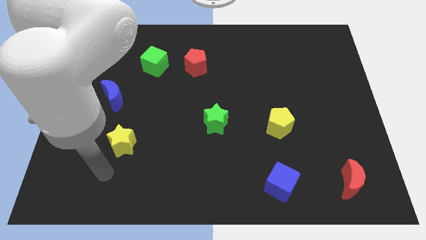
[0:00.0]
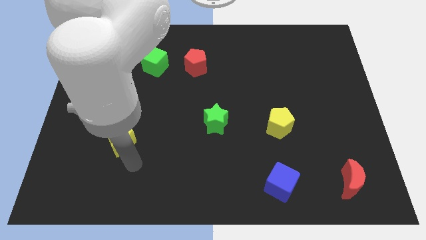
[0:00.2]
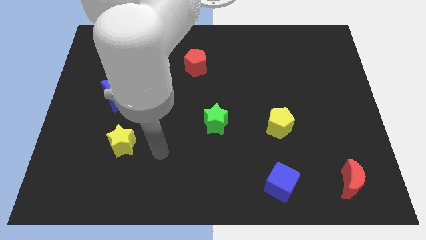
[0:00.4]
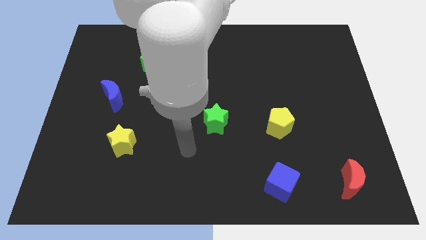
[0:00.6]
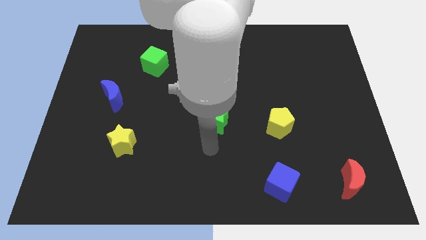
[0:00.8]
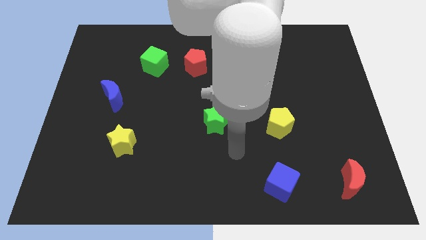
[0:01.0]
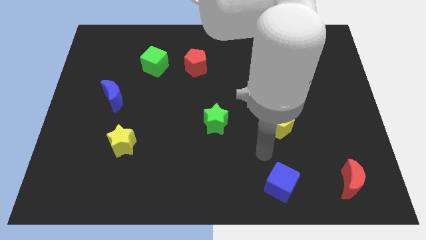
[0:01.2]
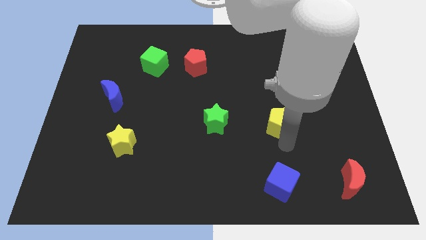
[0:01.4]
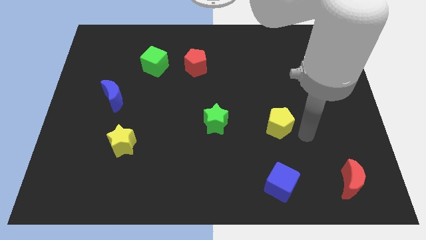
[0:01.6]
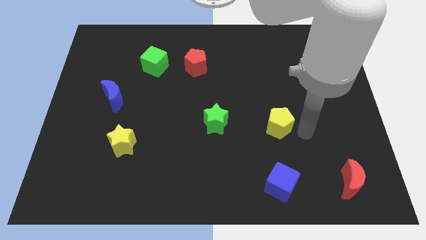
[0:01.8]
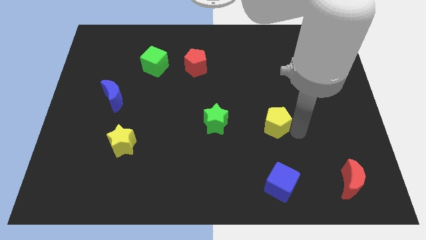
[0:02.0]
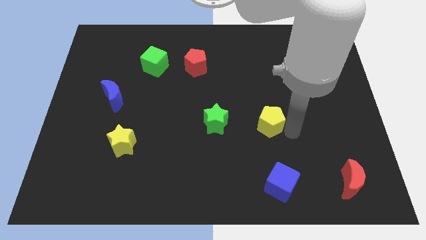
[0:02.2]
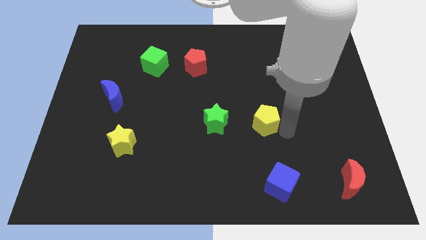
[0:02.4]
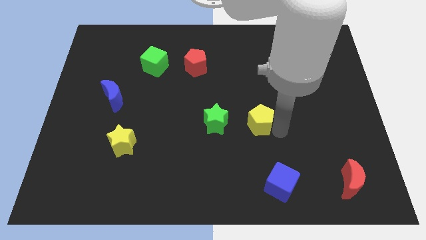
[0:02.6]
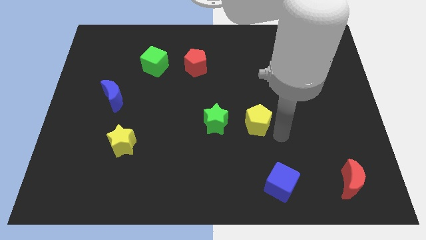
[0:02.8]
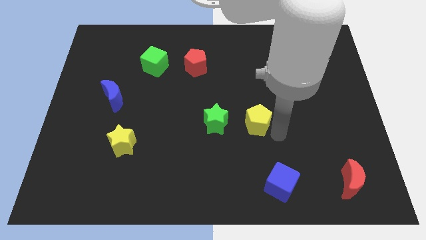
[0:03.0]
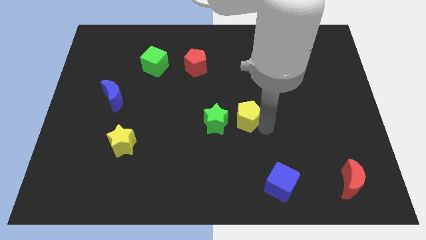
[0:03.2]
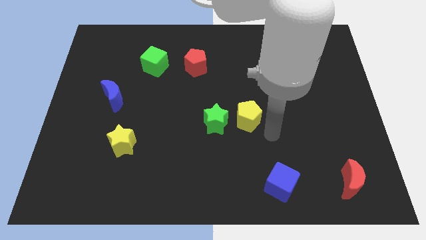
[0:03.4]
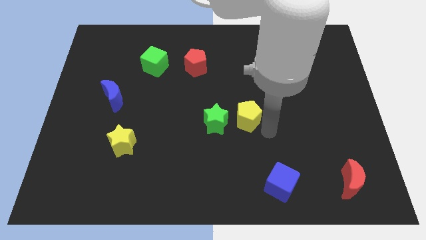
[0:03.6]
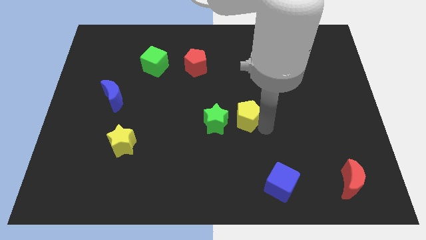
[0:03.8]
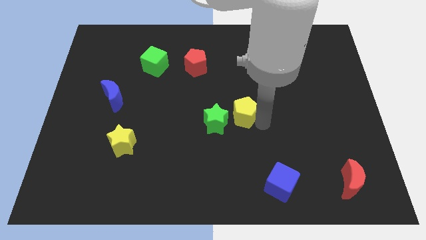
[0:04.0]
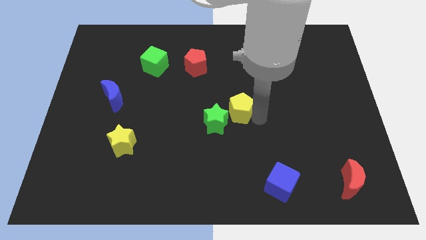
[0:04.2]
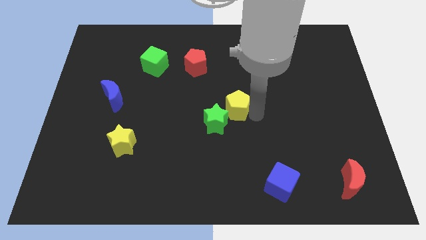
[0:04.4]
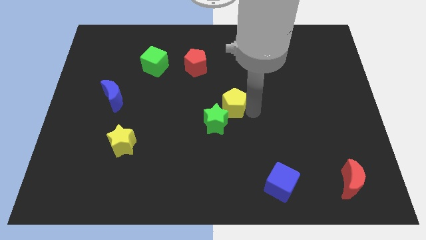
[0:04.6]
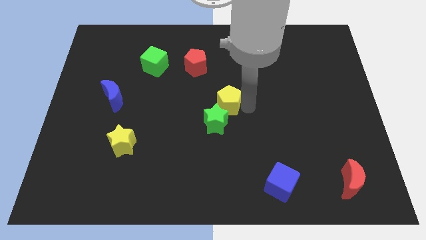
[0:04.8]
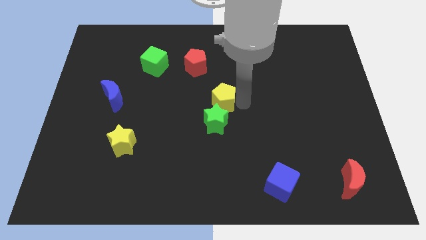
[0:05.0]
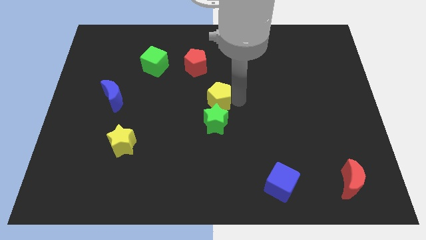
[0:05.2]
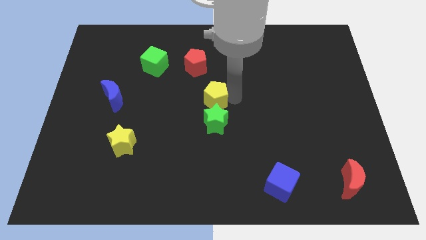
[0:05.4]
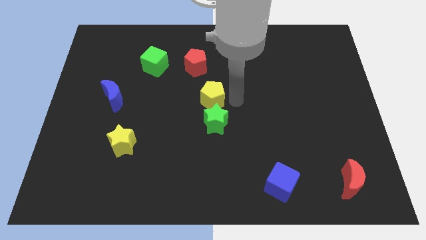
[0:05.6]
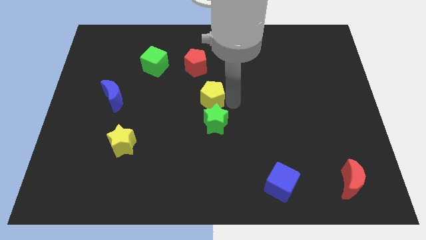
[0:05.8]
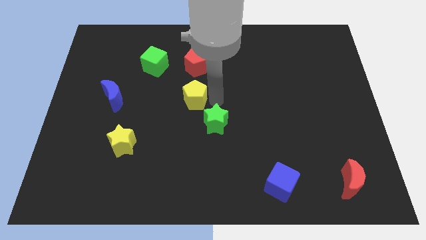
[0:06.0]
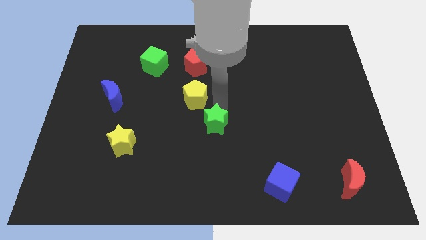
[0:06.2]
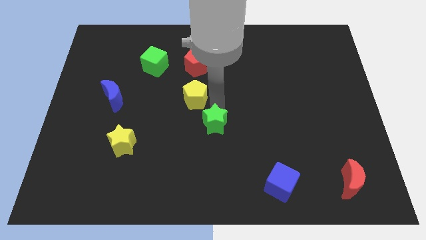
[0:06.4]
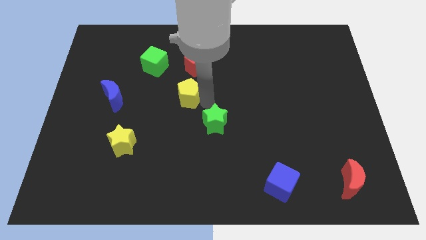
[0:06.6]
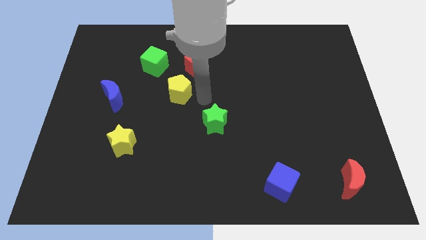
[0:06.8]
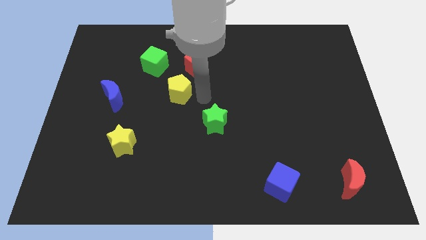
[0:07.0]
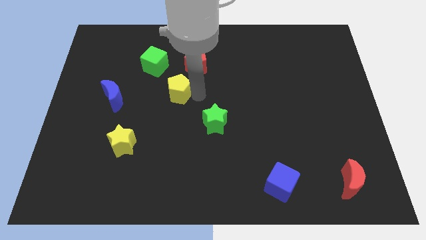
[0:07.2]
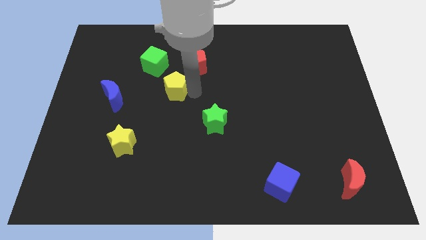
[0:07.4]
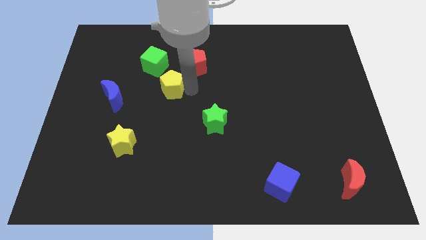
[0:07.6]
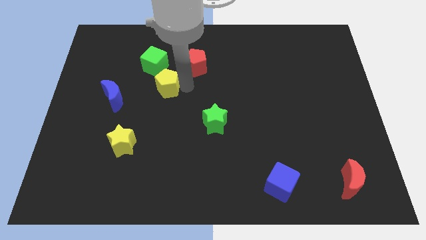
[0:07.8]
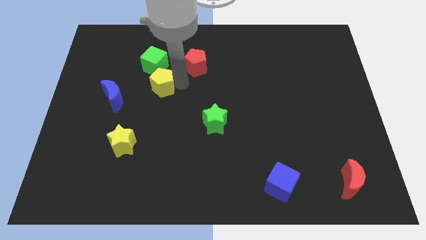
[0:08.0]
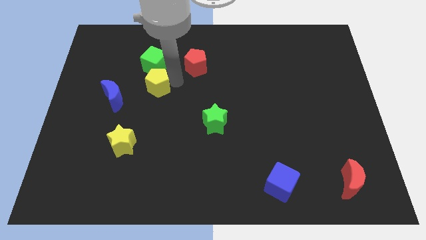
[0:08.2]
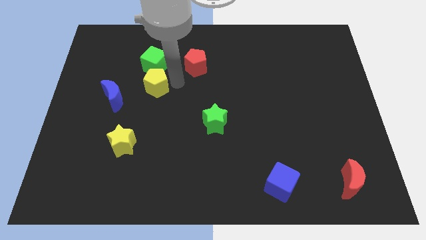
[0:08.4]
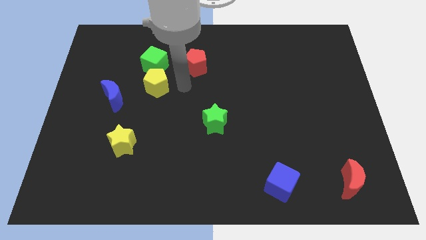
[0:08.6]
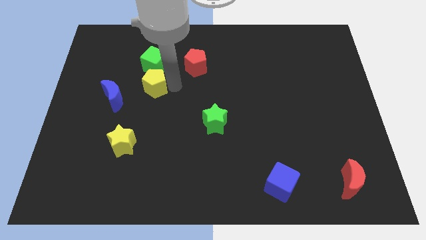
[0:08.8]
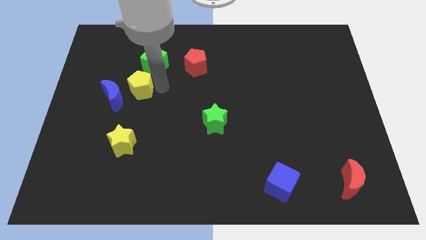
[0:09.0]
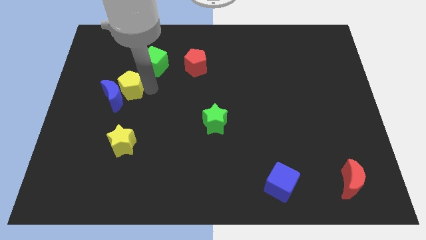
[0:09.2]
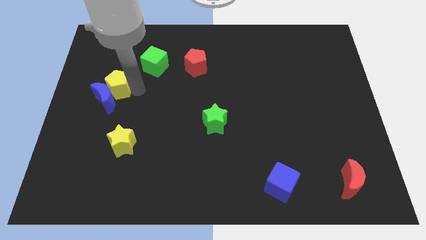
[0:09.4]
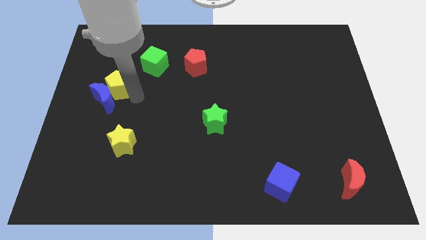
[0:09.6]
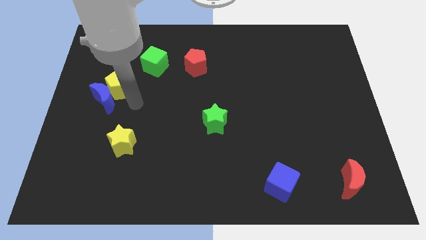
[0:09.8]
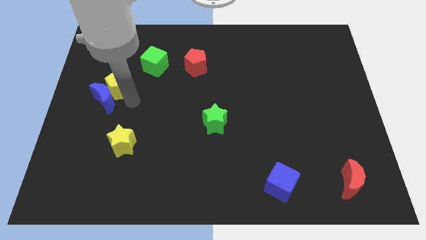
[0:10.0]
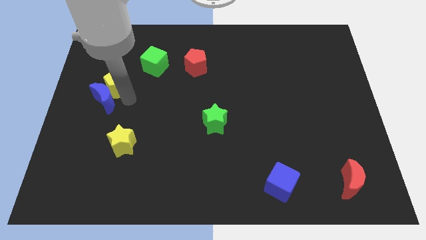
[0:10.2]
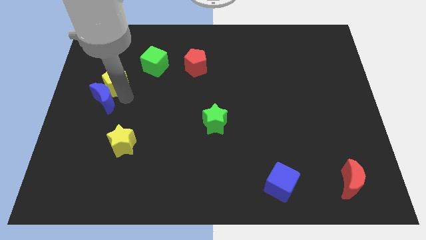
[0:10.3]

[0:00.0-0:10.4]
move the yellow pentagon diagonally up and to the left of the blue moon

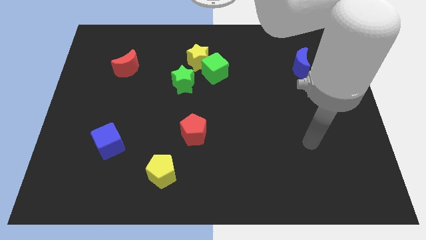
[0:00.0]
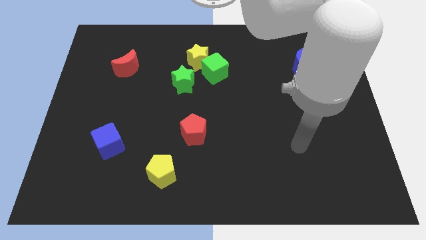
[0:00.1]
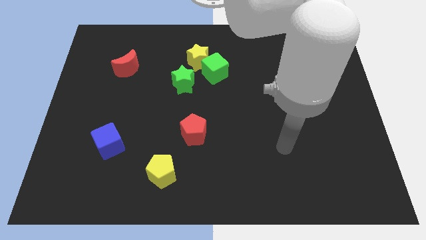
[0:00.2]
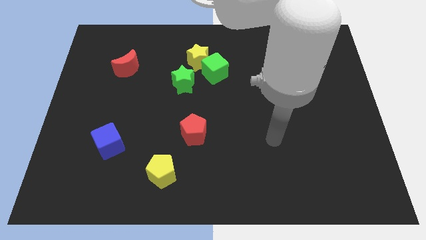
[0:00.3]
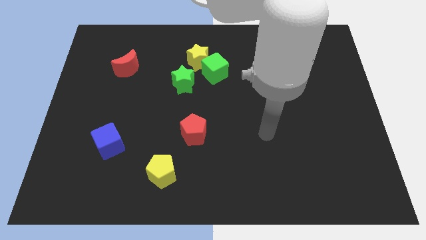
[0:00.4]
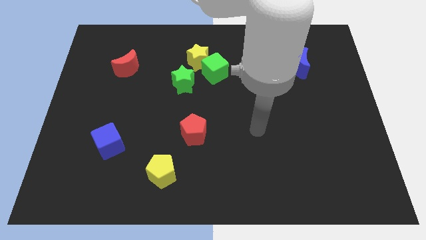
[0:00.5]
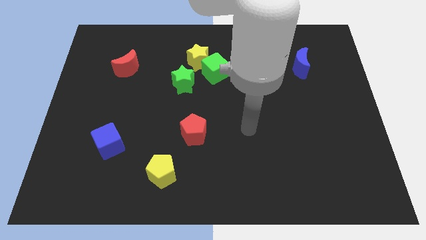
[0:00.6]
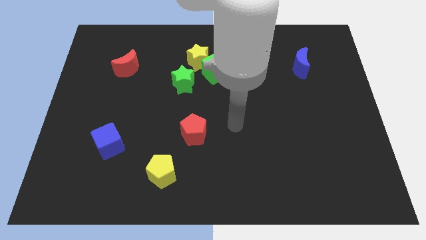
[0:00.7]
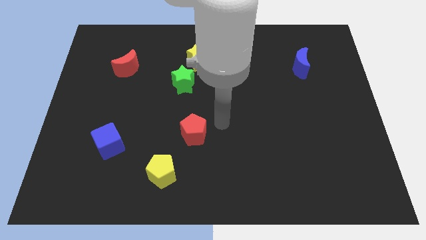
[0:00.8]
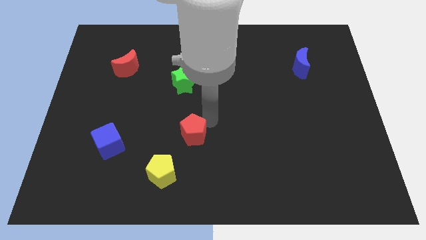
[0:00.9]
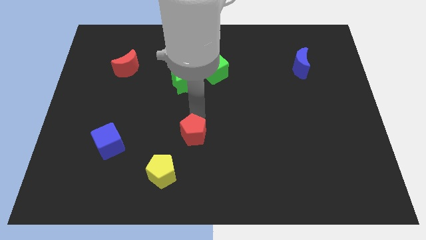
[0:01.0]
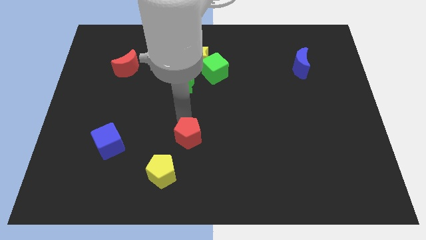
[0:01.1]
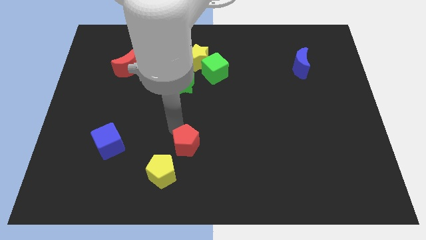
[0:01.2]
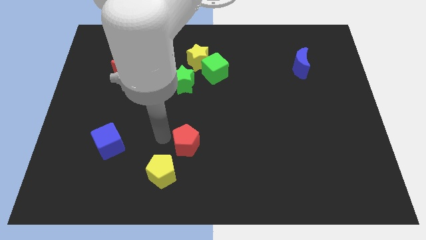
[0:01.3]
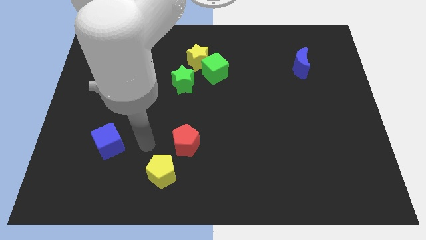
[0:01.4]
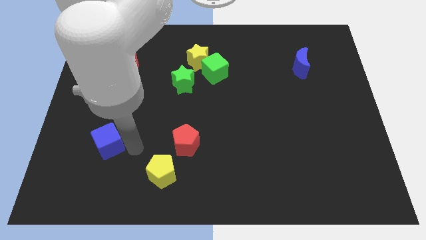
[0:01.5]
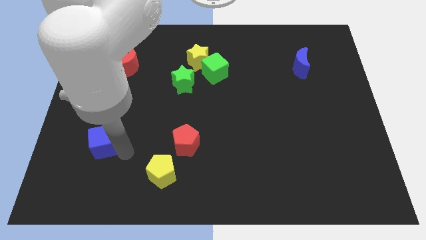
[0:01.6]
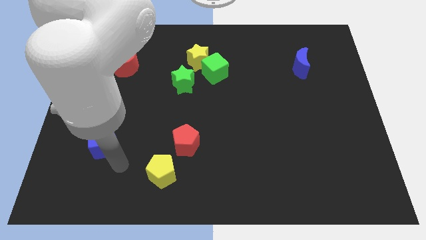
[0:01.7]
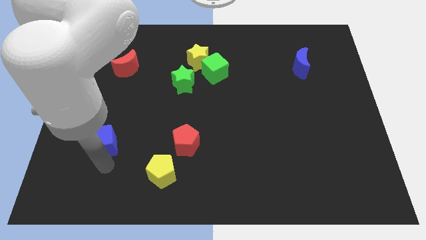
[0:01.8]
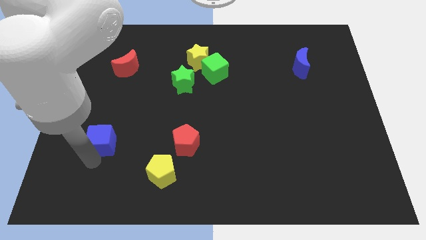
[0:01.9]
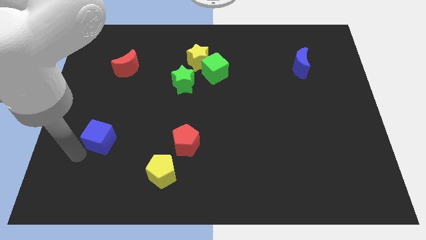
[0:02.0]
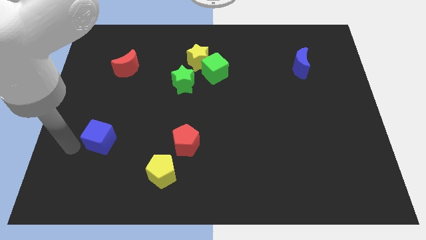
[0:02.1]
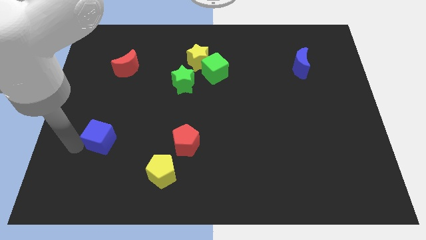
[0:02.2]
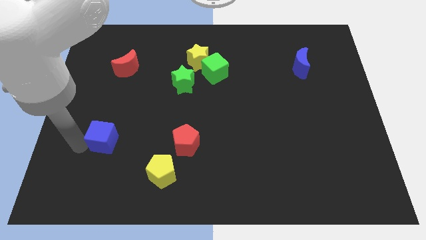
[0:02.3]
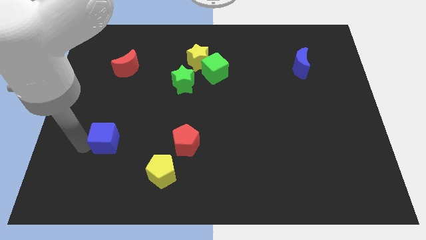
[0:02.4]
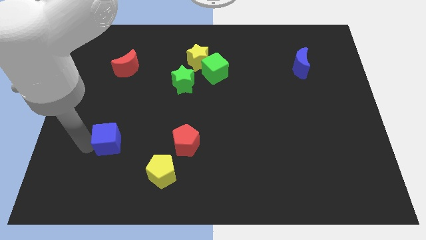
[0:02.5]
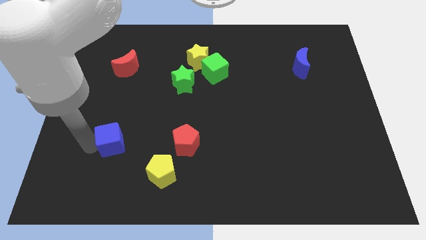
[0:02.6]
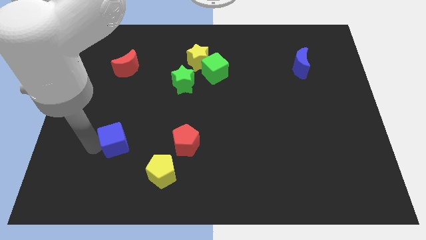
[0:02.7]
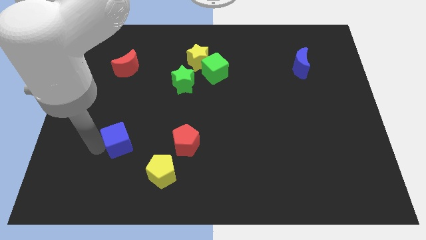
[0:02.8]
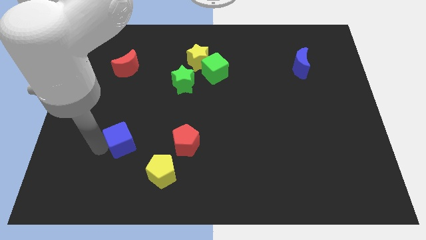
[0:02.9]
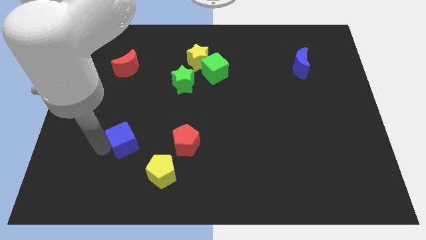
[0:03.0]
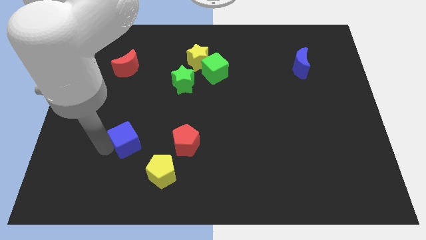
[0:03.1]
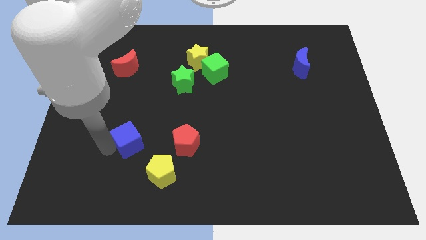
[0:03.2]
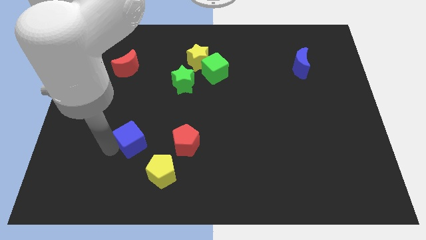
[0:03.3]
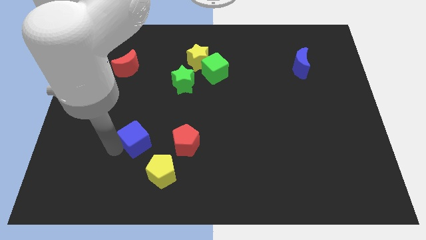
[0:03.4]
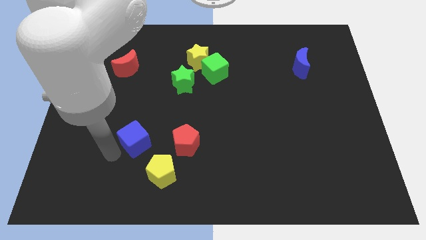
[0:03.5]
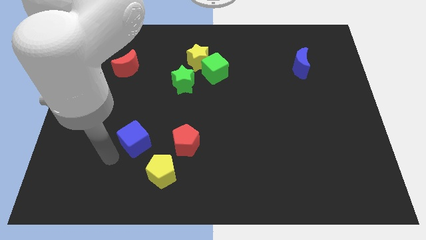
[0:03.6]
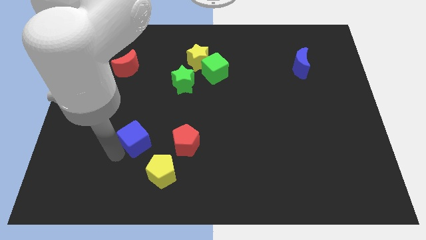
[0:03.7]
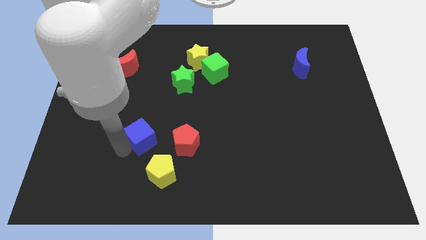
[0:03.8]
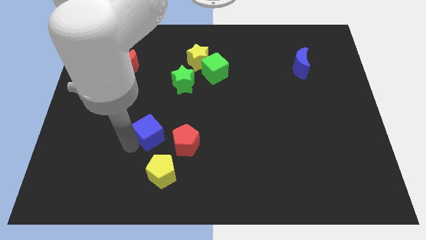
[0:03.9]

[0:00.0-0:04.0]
push the blue cube to the top left side of the red pentagon
